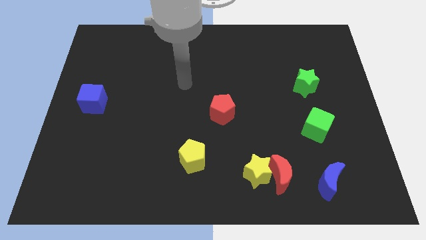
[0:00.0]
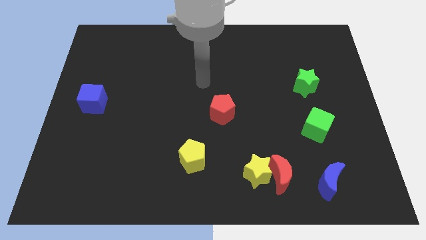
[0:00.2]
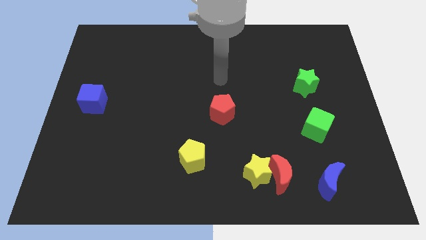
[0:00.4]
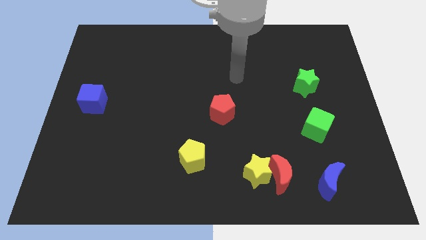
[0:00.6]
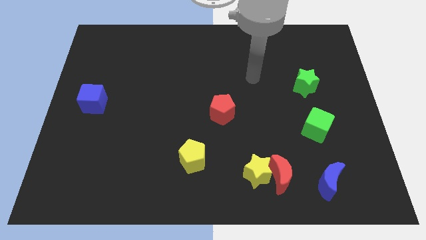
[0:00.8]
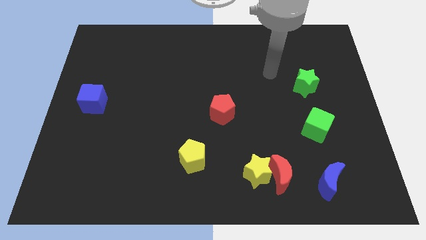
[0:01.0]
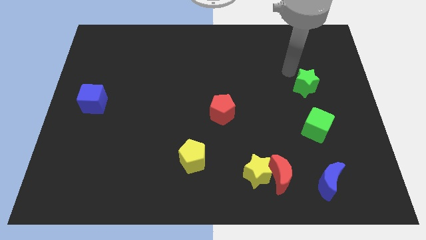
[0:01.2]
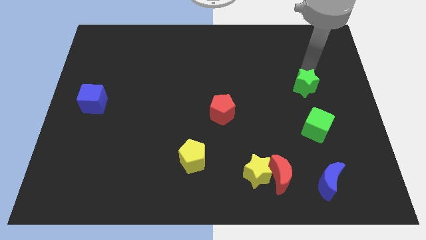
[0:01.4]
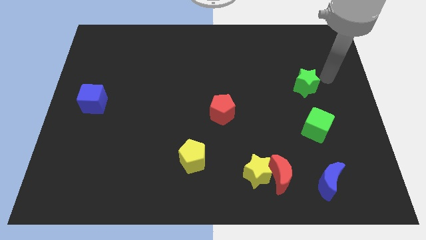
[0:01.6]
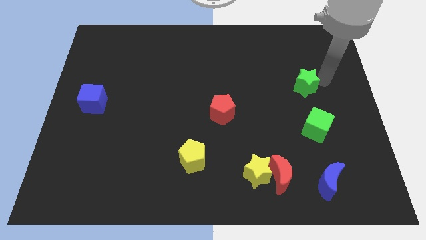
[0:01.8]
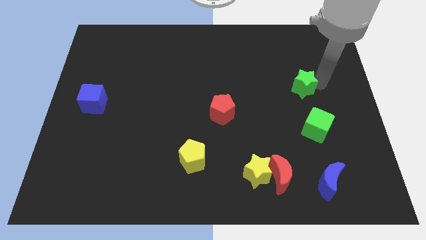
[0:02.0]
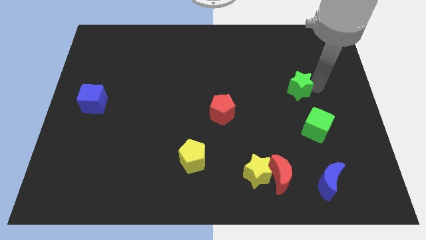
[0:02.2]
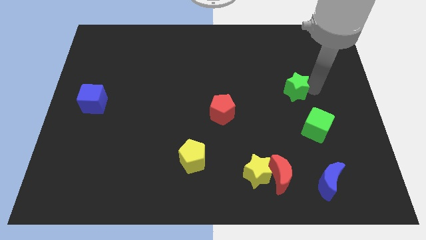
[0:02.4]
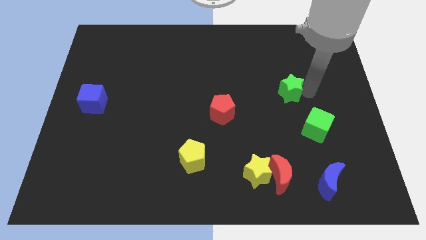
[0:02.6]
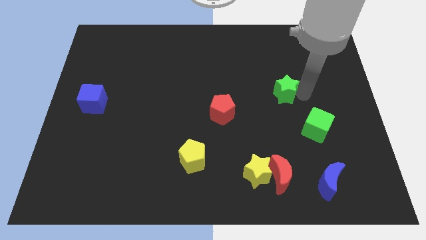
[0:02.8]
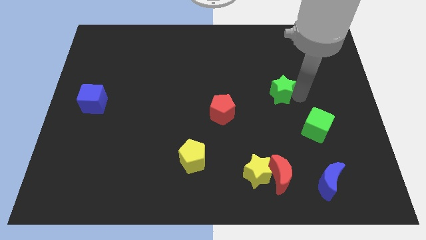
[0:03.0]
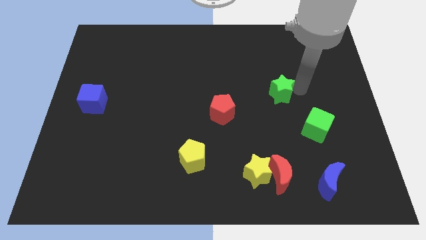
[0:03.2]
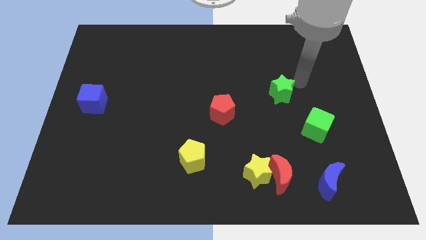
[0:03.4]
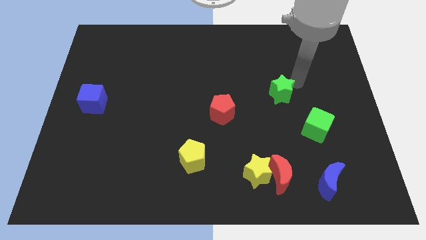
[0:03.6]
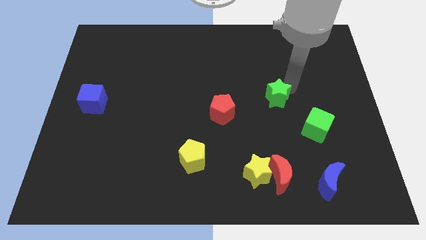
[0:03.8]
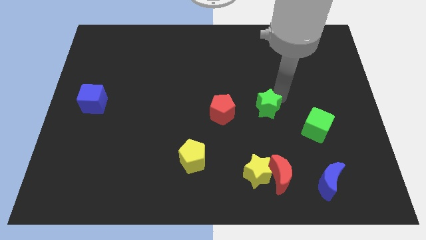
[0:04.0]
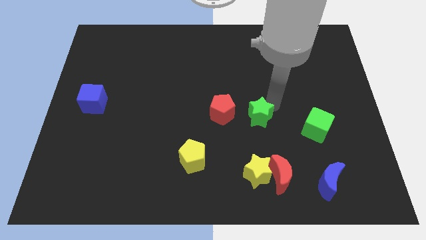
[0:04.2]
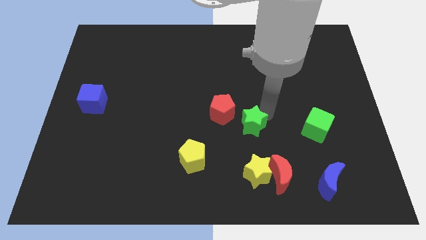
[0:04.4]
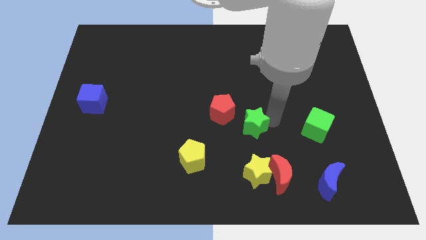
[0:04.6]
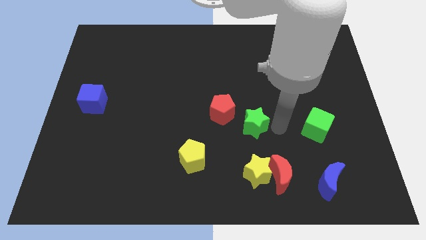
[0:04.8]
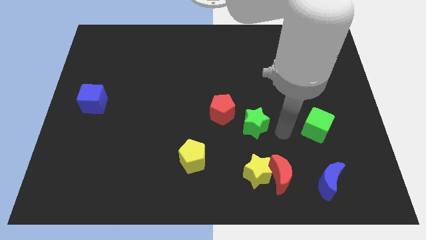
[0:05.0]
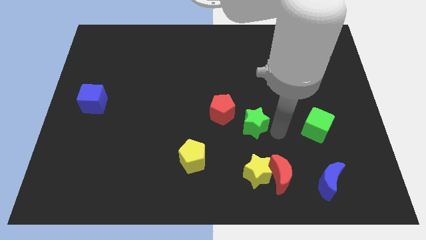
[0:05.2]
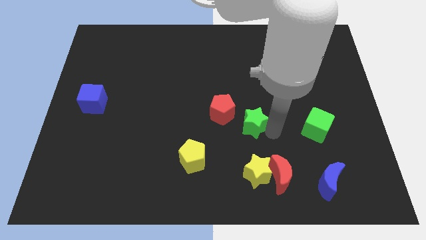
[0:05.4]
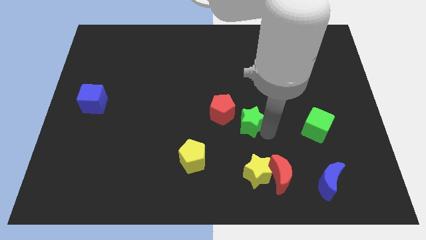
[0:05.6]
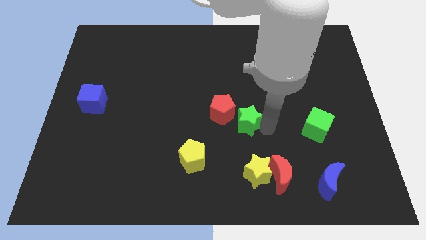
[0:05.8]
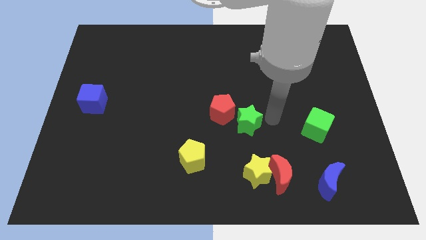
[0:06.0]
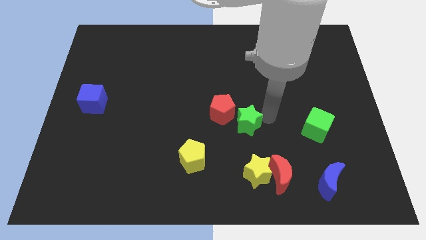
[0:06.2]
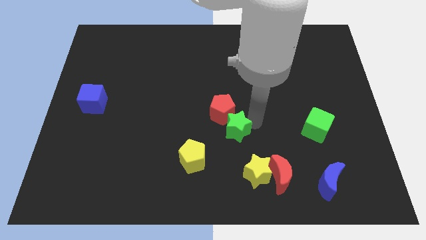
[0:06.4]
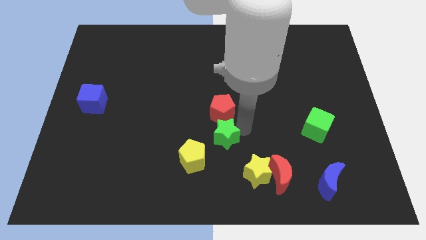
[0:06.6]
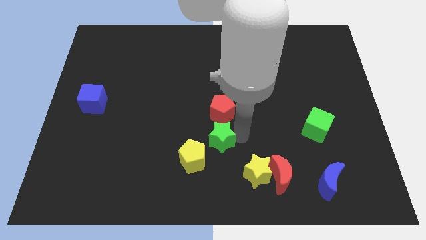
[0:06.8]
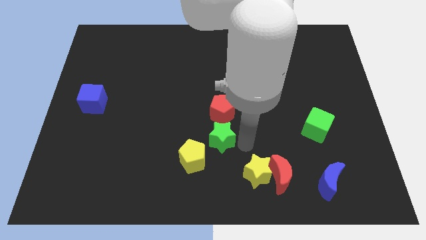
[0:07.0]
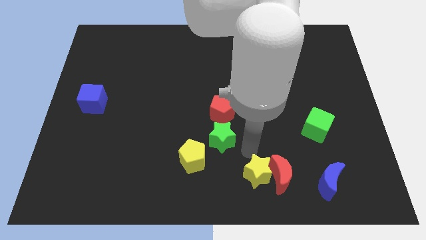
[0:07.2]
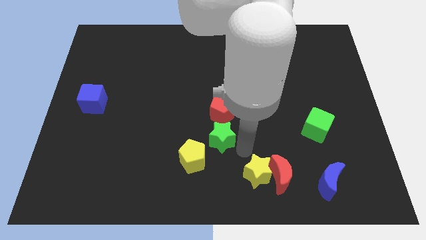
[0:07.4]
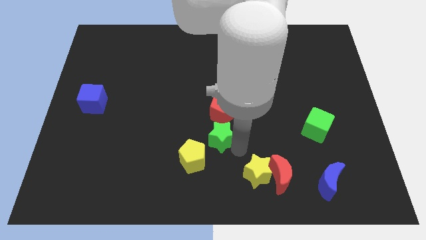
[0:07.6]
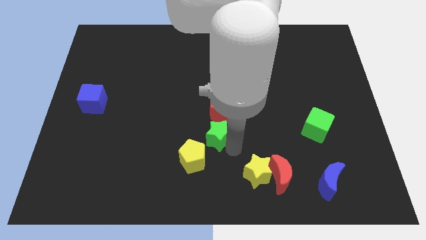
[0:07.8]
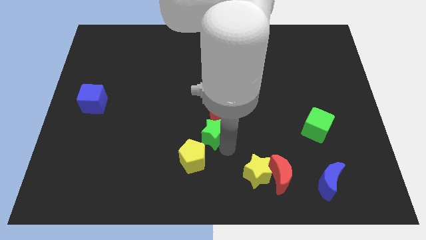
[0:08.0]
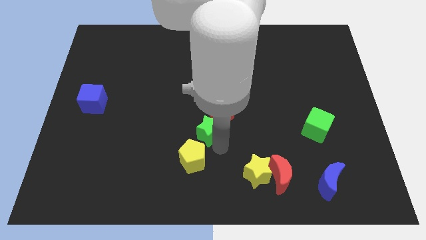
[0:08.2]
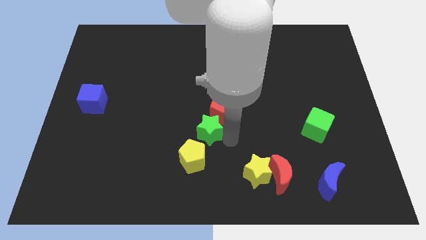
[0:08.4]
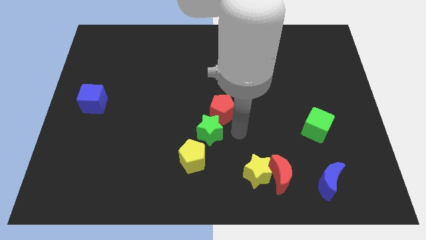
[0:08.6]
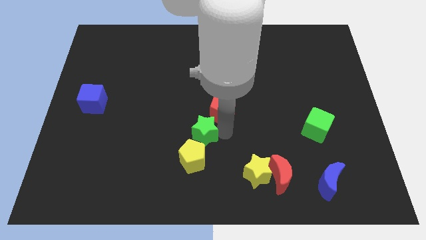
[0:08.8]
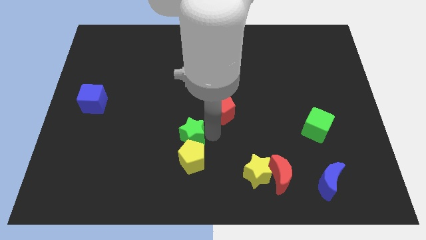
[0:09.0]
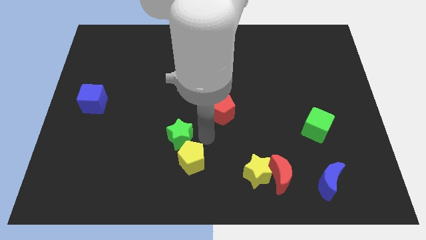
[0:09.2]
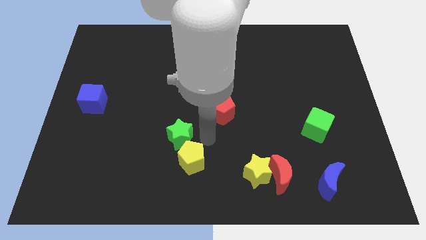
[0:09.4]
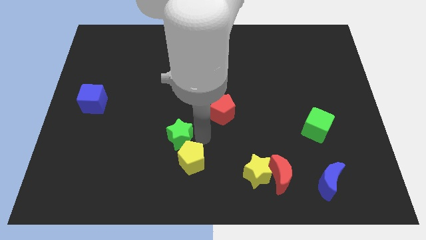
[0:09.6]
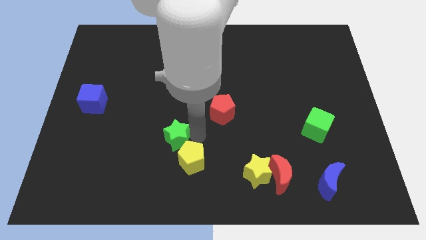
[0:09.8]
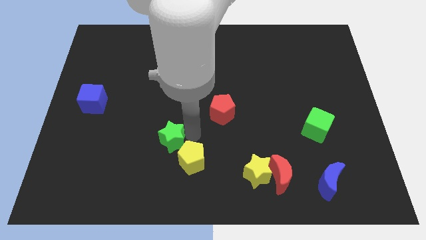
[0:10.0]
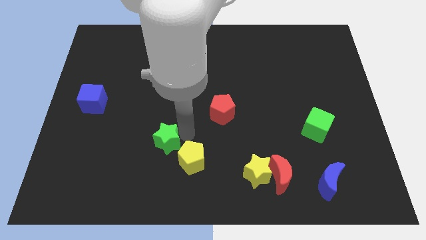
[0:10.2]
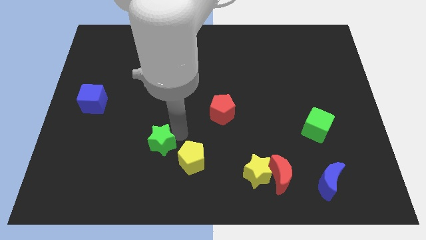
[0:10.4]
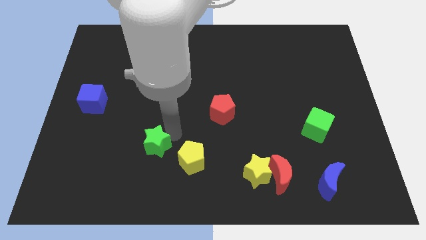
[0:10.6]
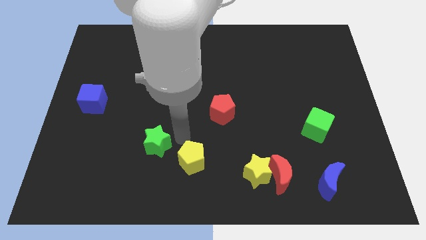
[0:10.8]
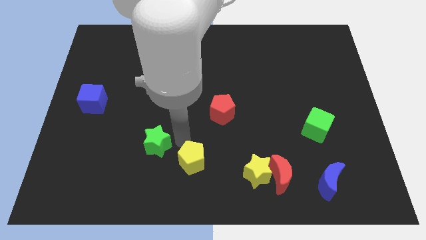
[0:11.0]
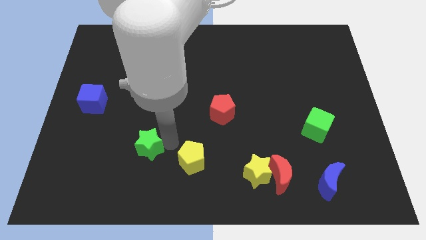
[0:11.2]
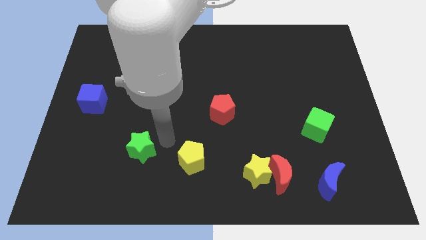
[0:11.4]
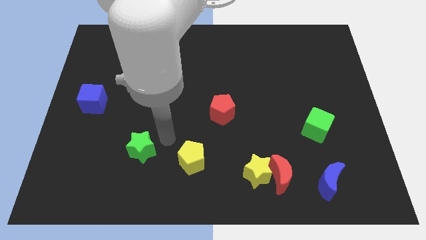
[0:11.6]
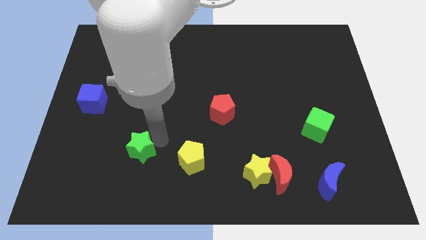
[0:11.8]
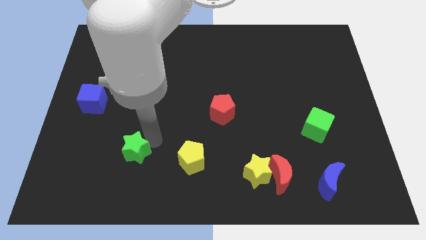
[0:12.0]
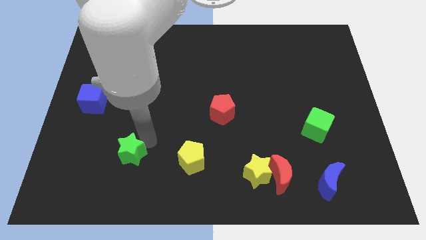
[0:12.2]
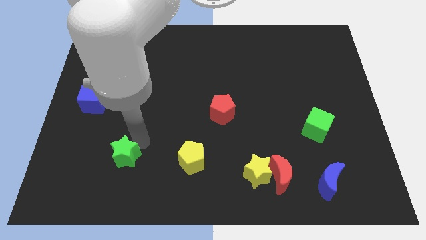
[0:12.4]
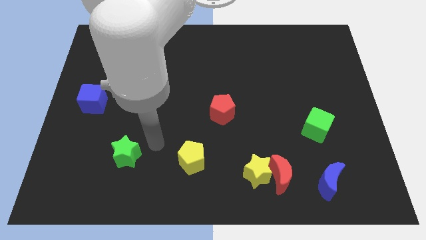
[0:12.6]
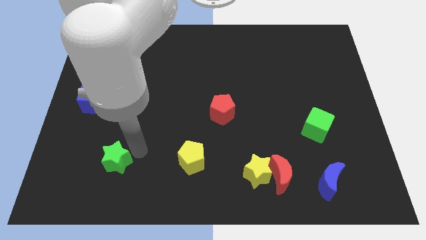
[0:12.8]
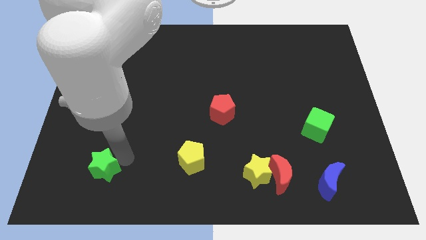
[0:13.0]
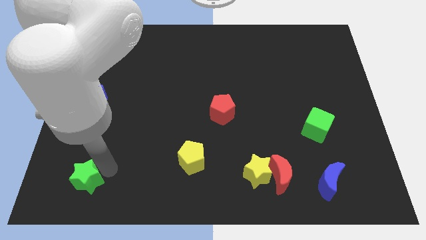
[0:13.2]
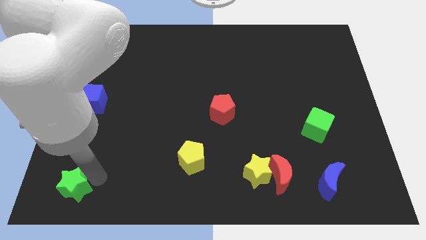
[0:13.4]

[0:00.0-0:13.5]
put the green star to the lower left corner
